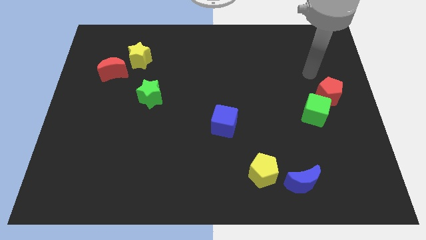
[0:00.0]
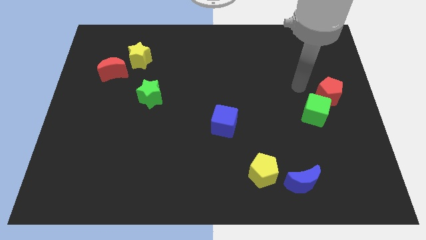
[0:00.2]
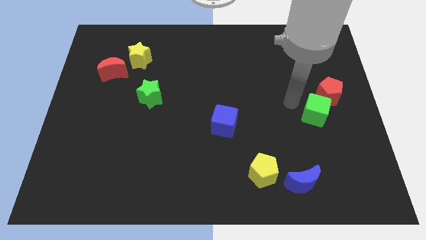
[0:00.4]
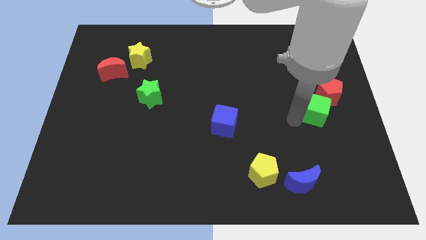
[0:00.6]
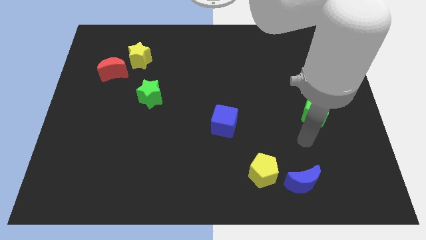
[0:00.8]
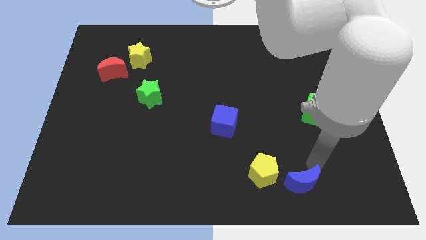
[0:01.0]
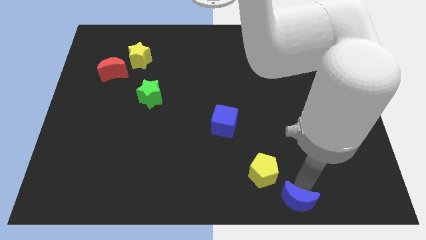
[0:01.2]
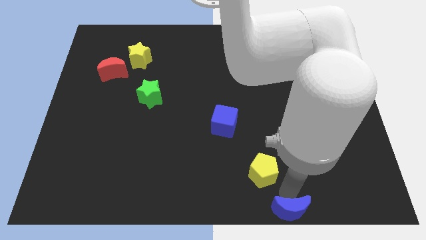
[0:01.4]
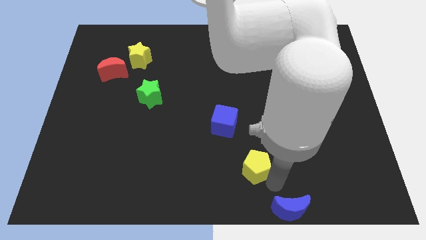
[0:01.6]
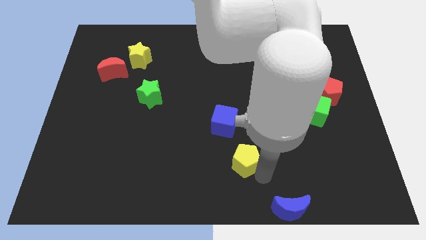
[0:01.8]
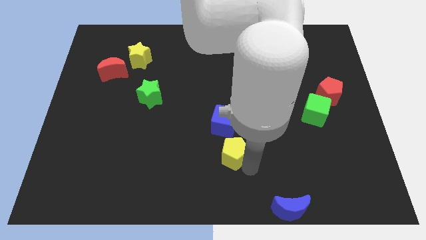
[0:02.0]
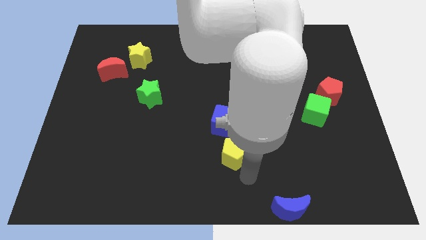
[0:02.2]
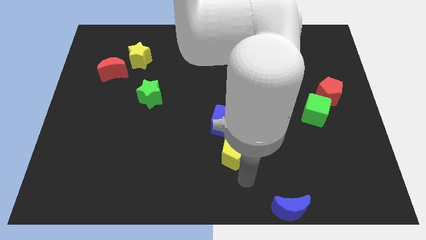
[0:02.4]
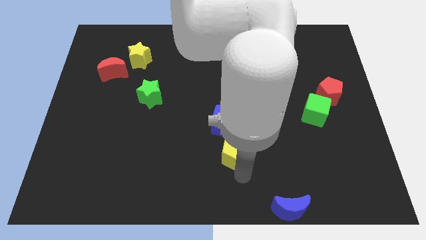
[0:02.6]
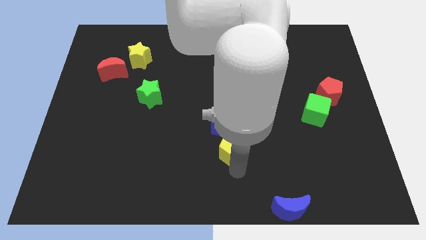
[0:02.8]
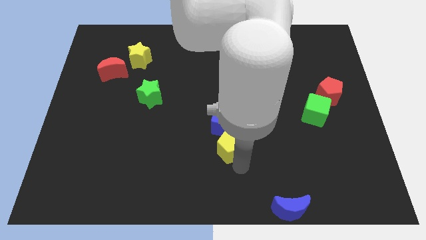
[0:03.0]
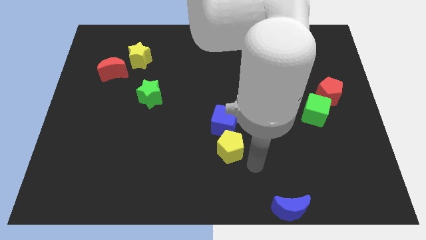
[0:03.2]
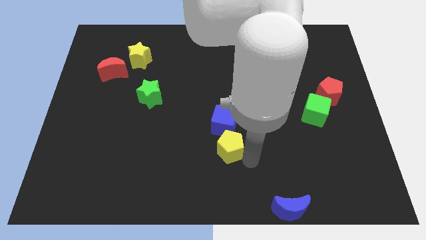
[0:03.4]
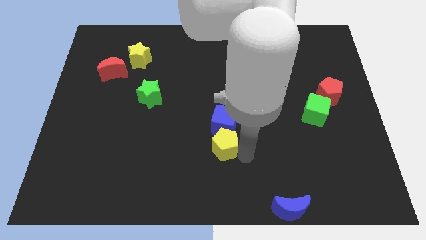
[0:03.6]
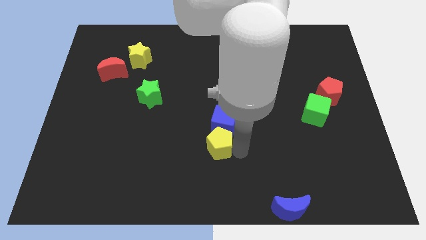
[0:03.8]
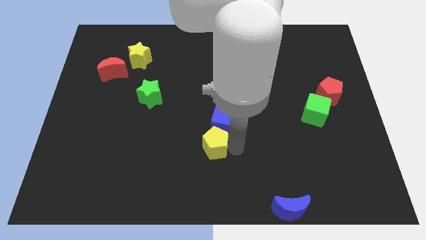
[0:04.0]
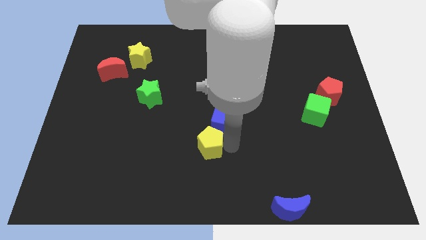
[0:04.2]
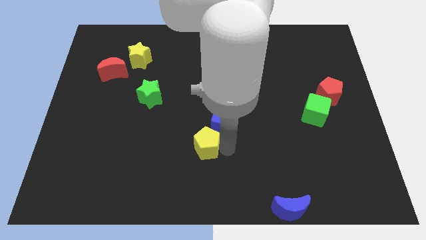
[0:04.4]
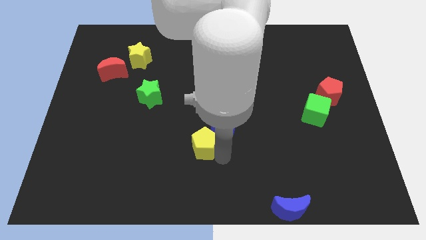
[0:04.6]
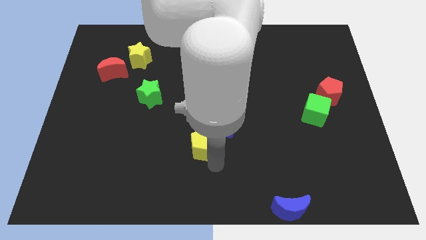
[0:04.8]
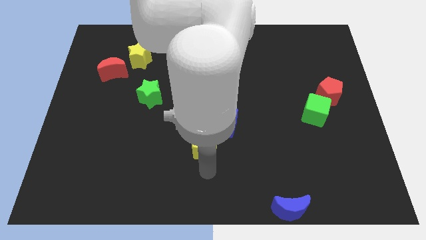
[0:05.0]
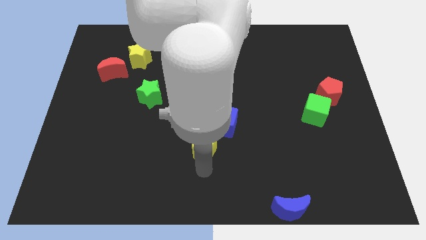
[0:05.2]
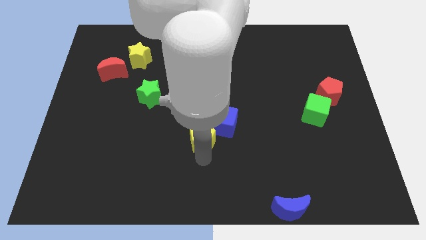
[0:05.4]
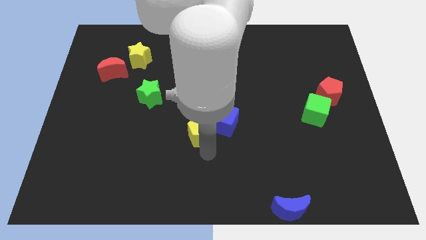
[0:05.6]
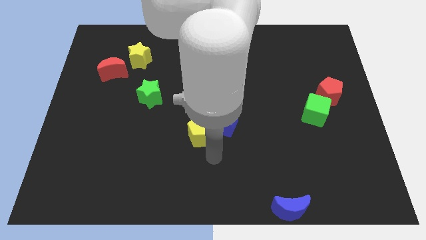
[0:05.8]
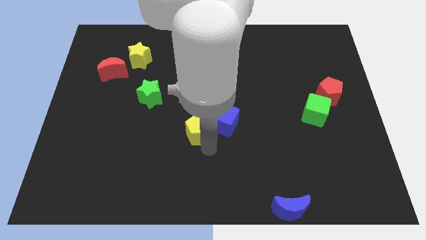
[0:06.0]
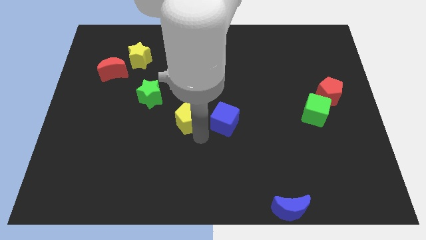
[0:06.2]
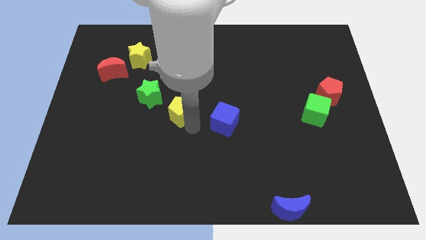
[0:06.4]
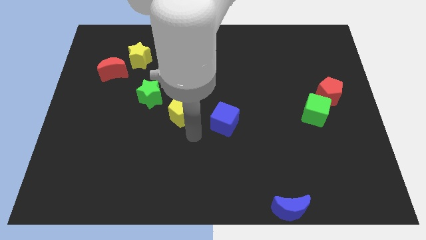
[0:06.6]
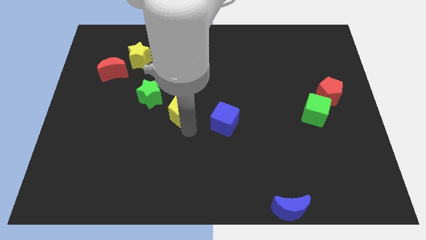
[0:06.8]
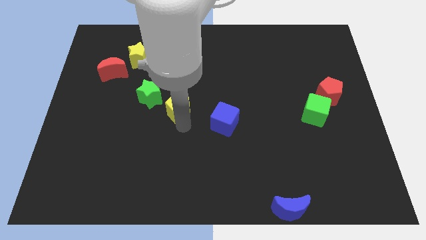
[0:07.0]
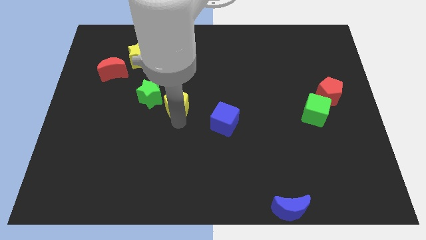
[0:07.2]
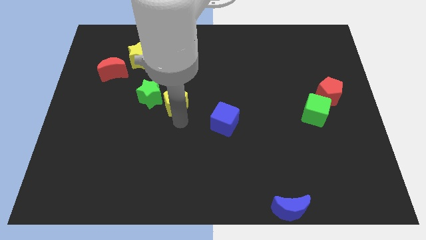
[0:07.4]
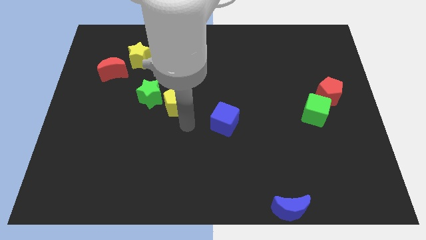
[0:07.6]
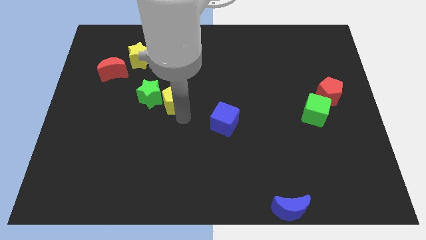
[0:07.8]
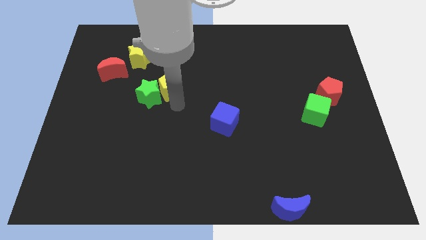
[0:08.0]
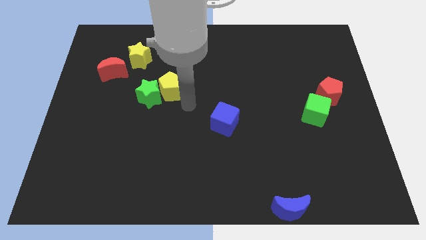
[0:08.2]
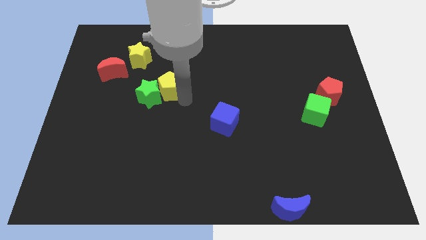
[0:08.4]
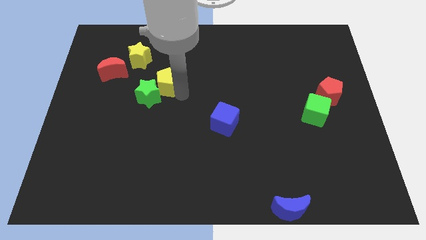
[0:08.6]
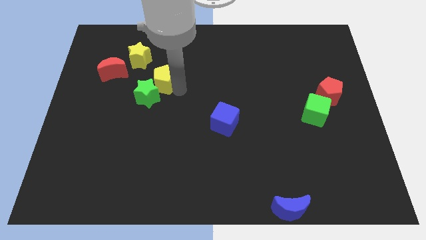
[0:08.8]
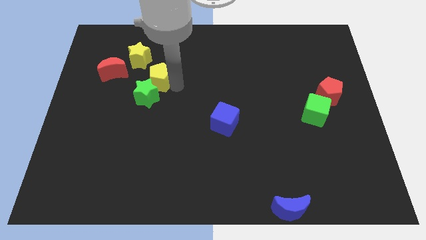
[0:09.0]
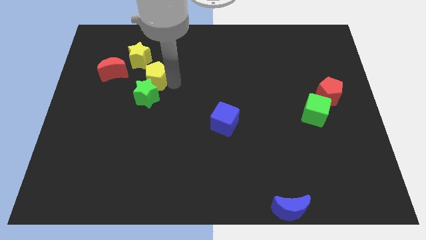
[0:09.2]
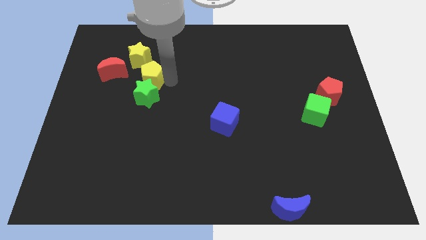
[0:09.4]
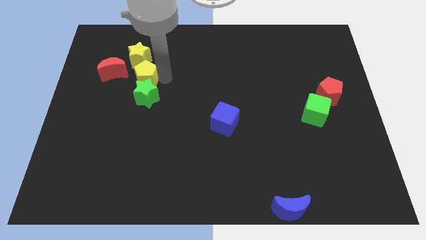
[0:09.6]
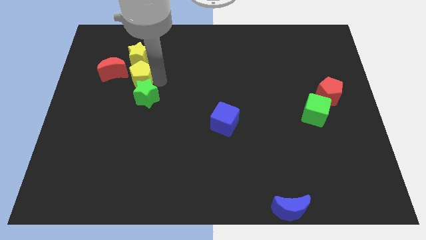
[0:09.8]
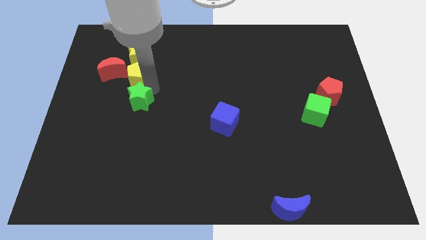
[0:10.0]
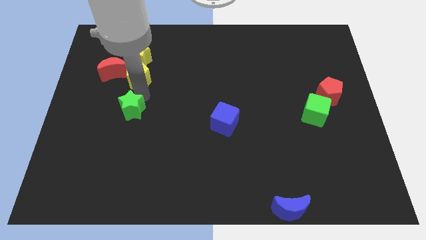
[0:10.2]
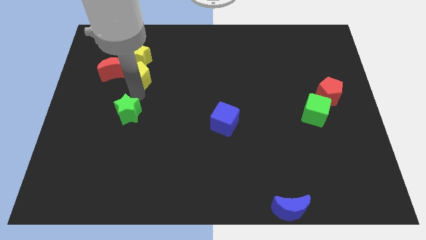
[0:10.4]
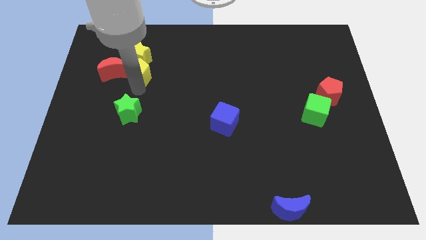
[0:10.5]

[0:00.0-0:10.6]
slide the yellow pentagon to the yellow star

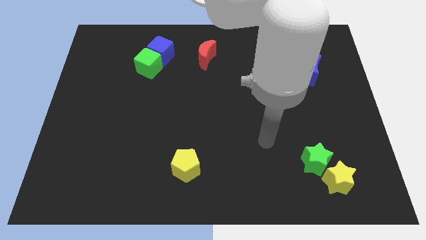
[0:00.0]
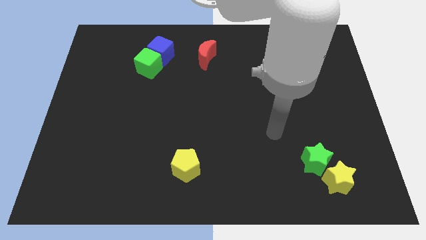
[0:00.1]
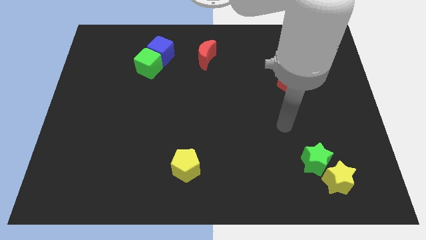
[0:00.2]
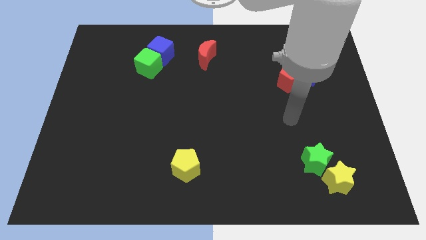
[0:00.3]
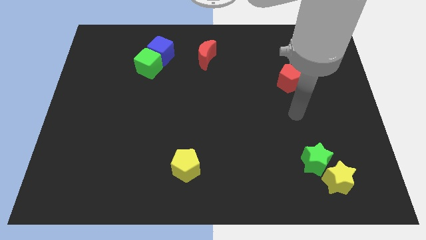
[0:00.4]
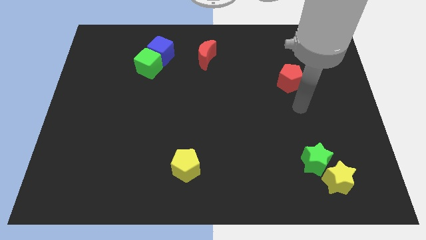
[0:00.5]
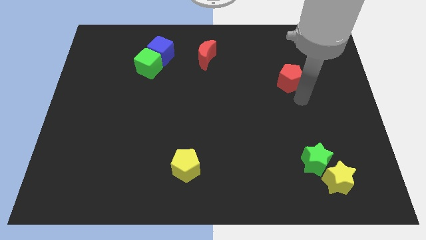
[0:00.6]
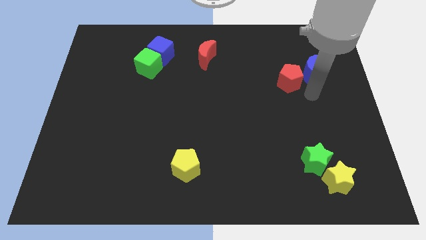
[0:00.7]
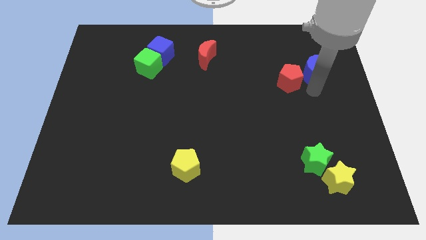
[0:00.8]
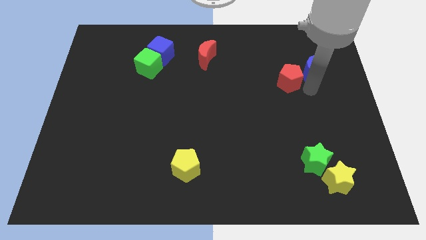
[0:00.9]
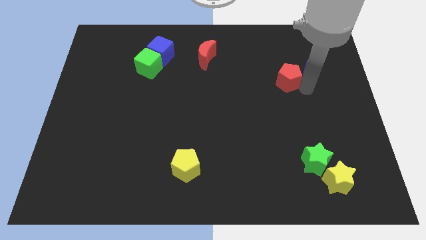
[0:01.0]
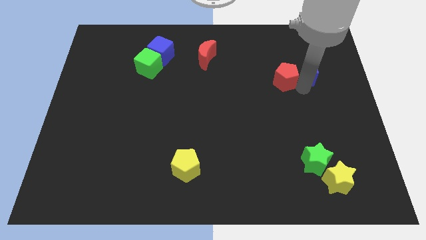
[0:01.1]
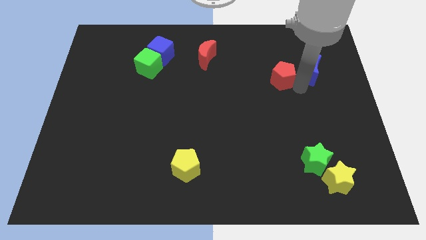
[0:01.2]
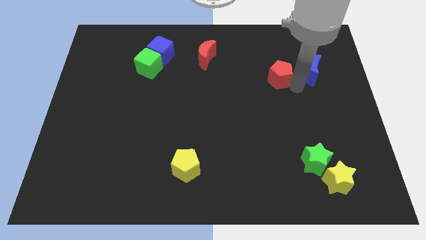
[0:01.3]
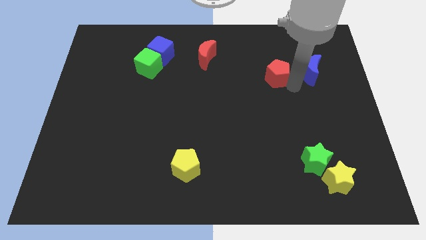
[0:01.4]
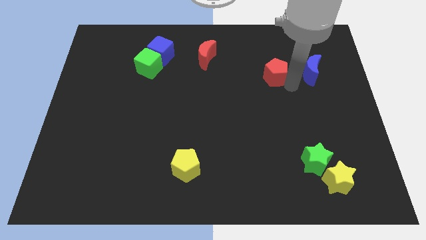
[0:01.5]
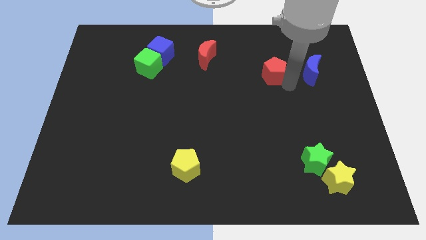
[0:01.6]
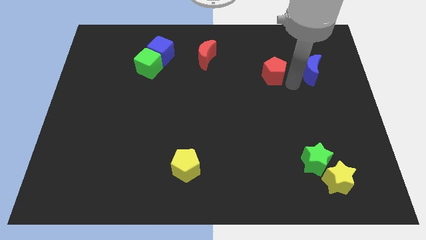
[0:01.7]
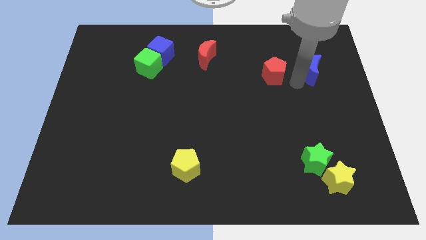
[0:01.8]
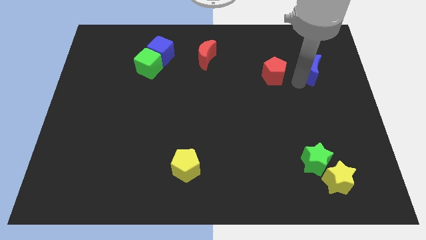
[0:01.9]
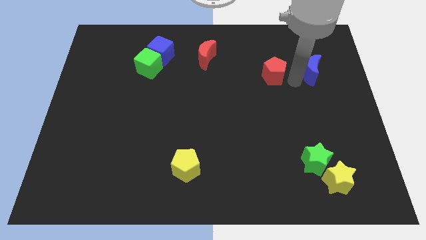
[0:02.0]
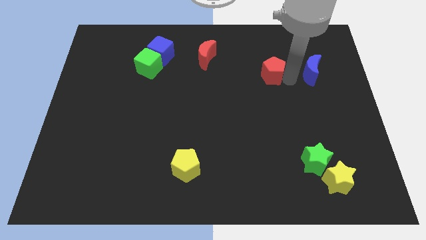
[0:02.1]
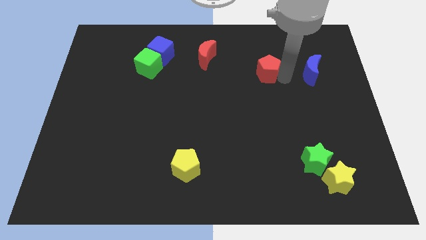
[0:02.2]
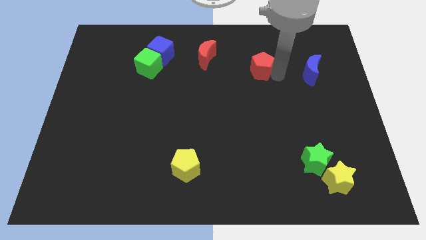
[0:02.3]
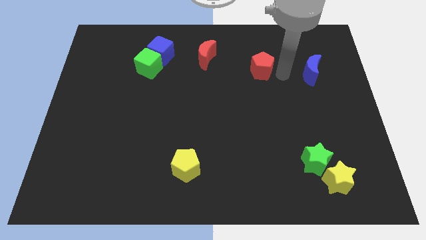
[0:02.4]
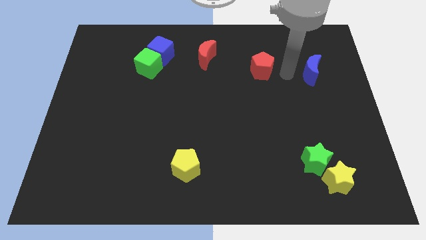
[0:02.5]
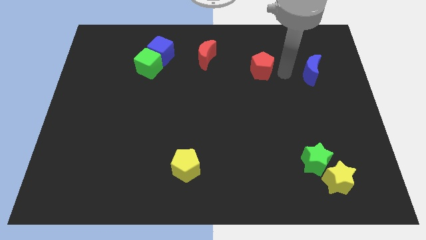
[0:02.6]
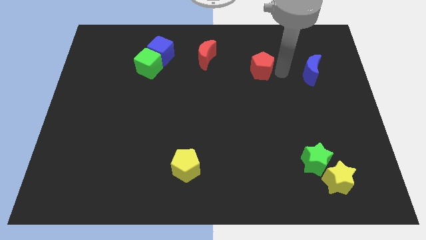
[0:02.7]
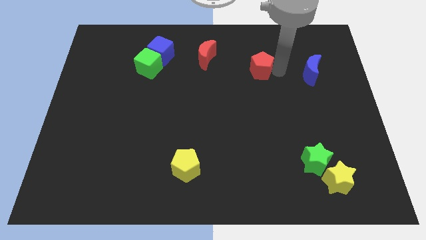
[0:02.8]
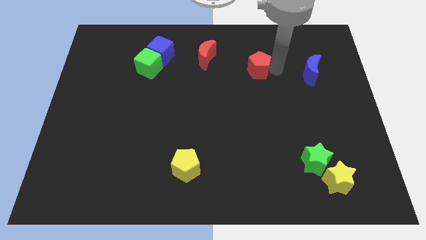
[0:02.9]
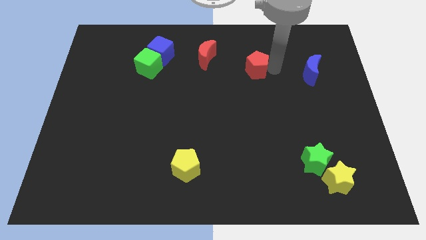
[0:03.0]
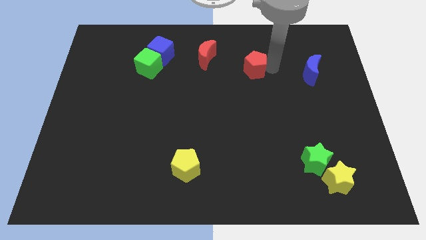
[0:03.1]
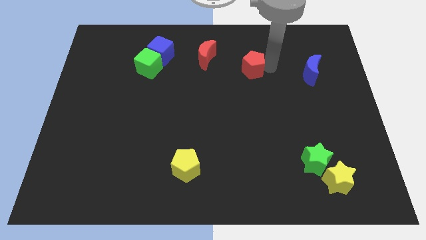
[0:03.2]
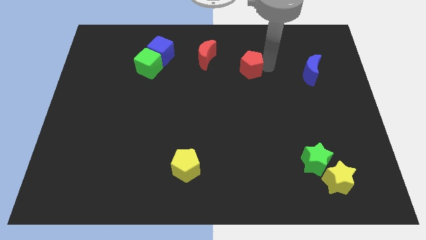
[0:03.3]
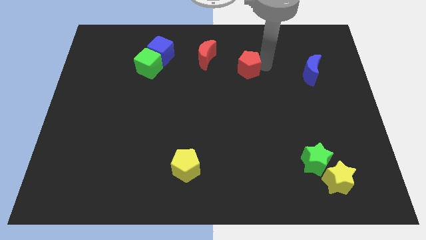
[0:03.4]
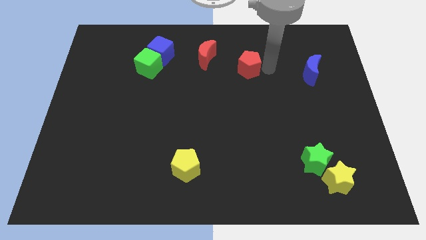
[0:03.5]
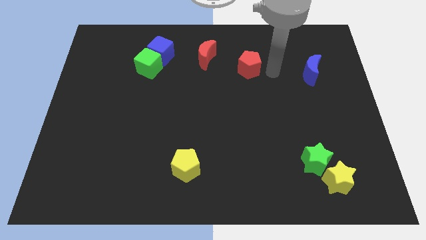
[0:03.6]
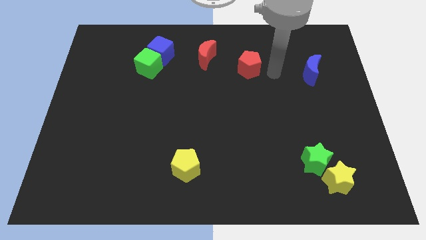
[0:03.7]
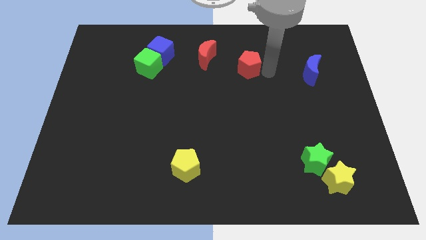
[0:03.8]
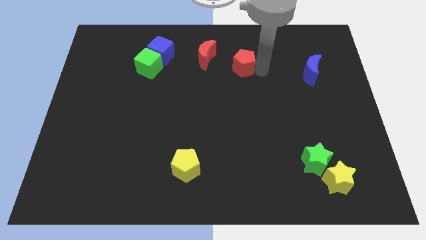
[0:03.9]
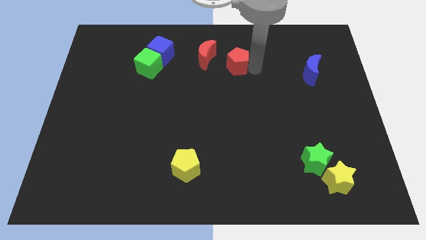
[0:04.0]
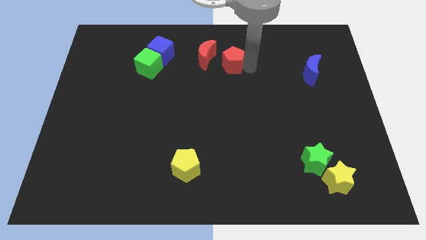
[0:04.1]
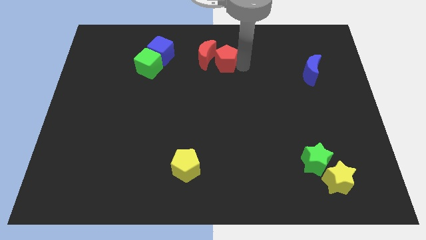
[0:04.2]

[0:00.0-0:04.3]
move the red pentagon towards the red moon
